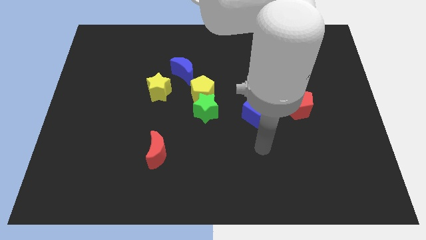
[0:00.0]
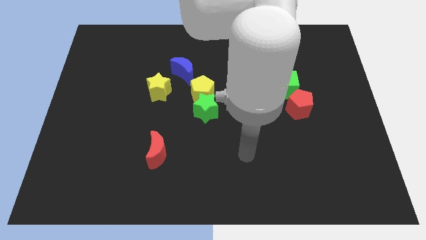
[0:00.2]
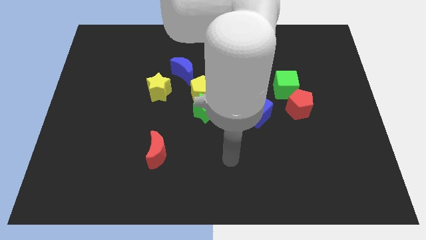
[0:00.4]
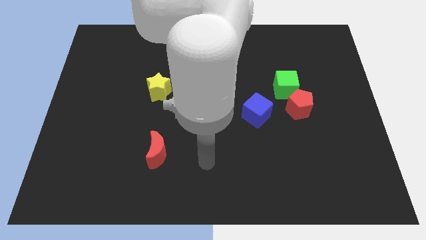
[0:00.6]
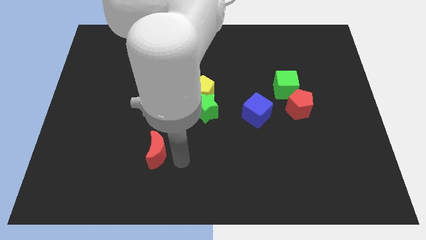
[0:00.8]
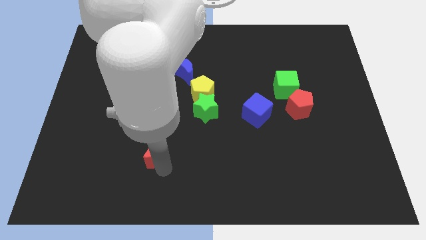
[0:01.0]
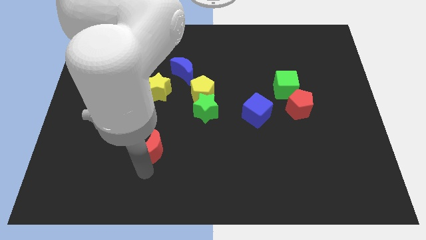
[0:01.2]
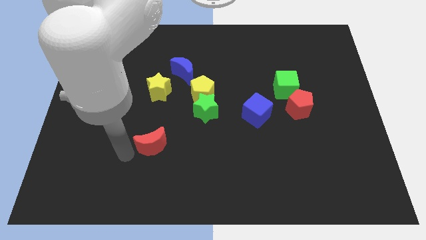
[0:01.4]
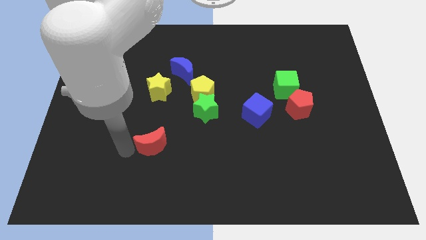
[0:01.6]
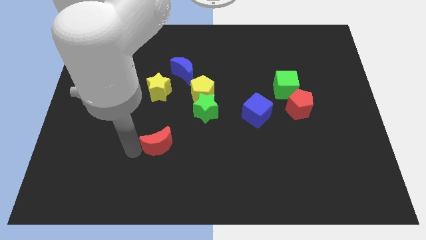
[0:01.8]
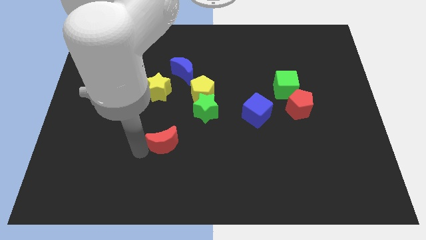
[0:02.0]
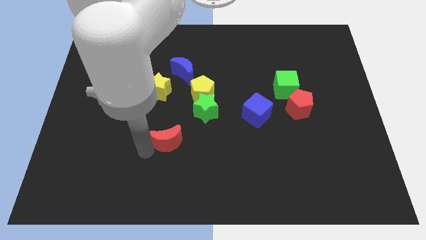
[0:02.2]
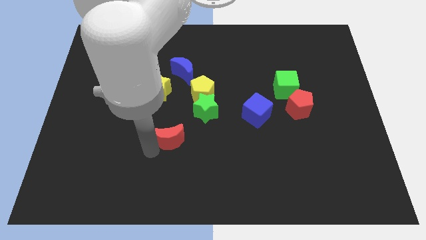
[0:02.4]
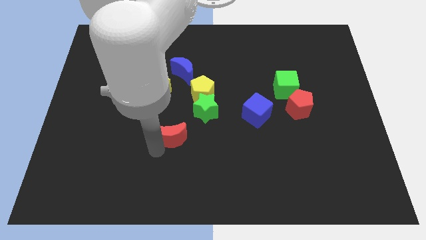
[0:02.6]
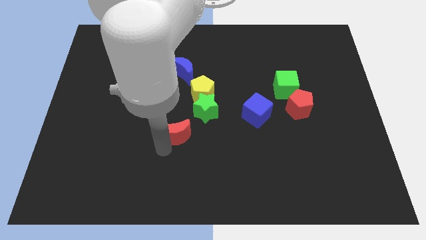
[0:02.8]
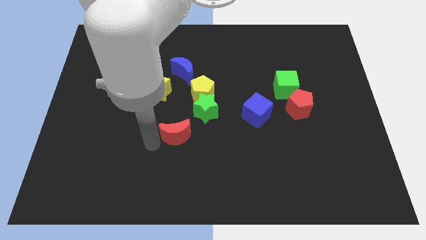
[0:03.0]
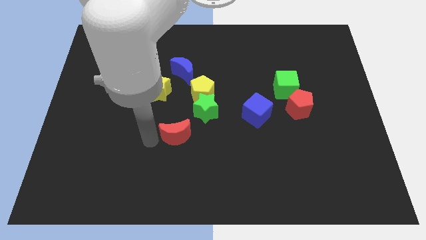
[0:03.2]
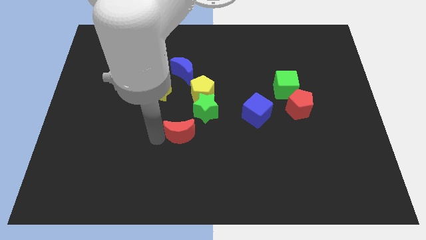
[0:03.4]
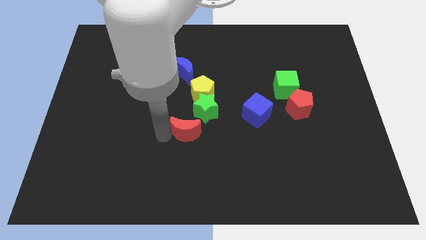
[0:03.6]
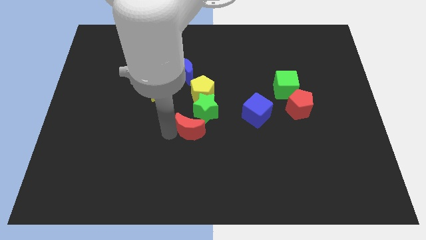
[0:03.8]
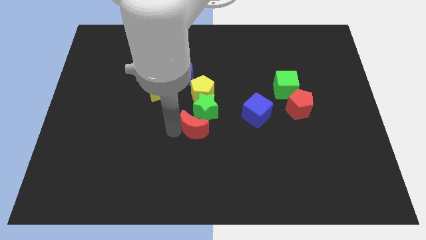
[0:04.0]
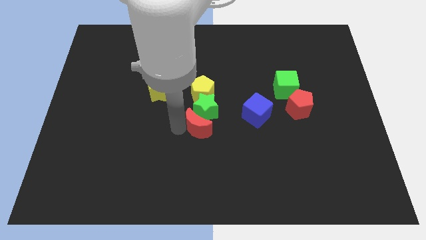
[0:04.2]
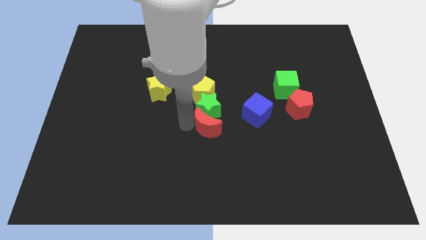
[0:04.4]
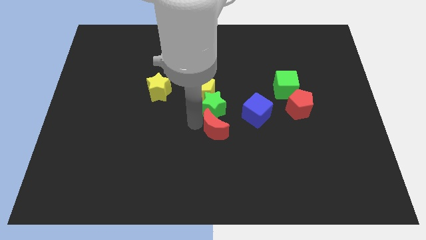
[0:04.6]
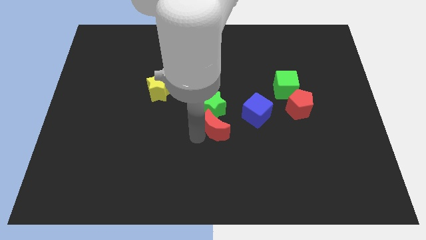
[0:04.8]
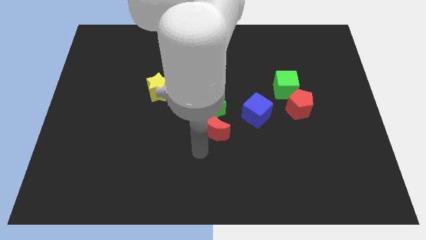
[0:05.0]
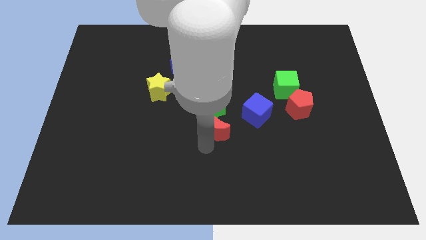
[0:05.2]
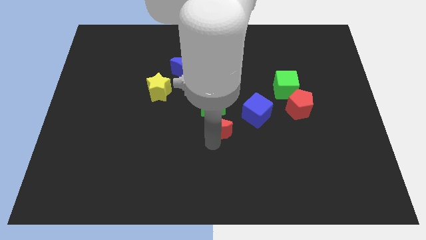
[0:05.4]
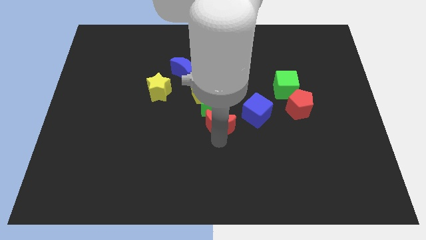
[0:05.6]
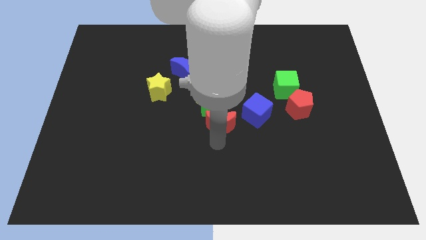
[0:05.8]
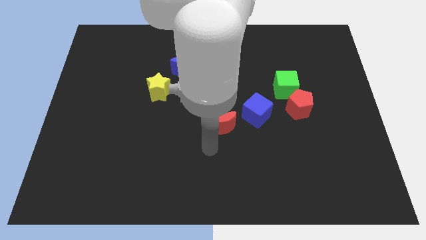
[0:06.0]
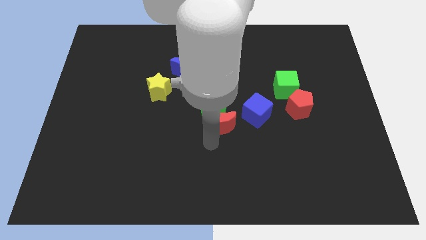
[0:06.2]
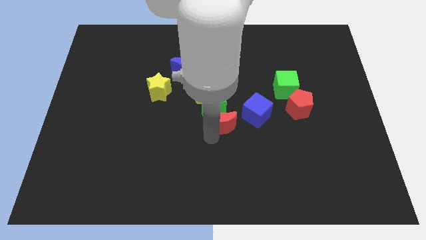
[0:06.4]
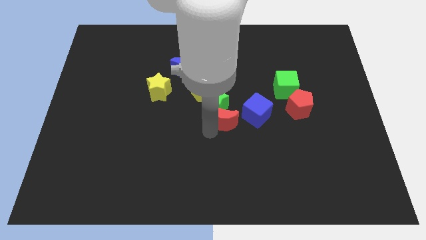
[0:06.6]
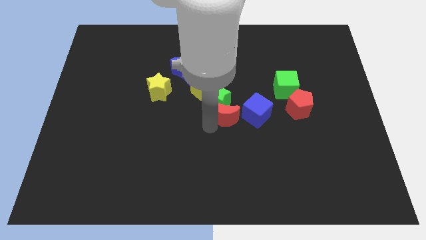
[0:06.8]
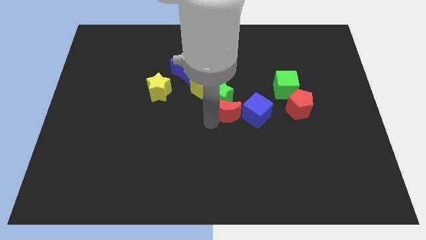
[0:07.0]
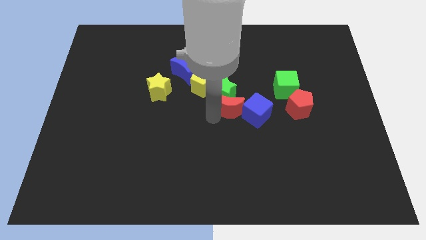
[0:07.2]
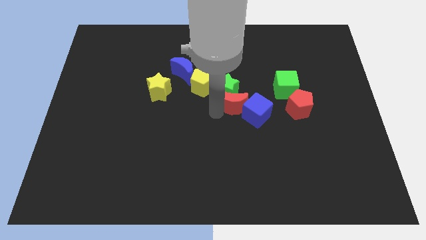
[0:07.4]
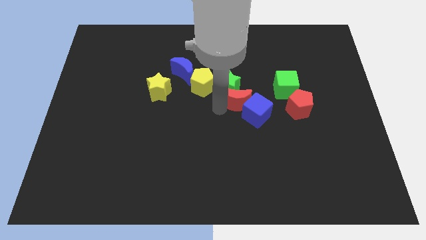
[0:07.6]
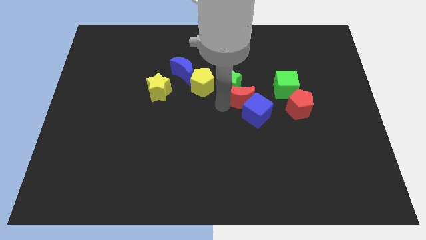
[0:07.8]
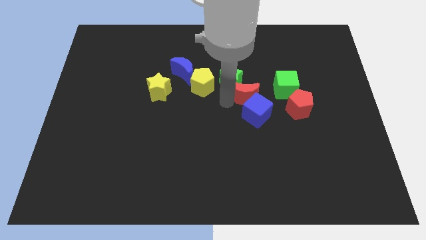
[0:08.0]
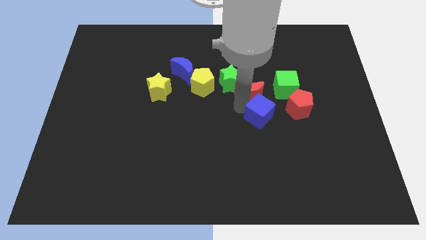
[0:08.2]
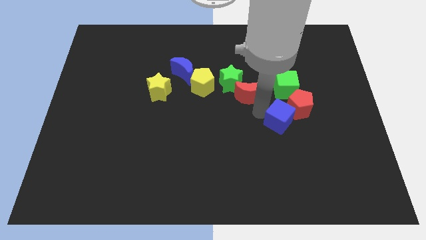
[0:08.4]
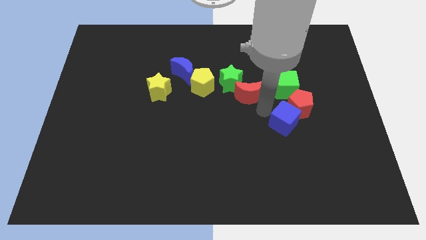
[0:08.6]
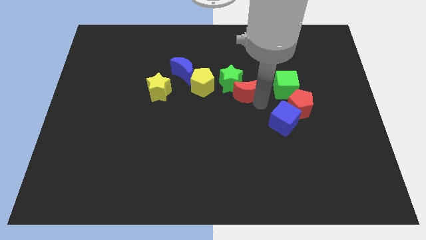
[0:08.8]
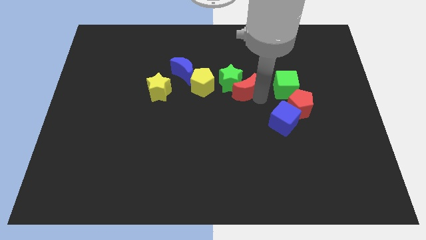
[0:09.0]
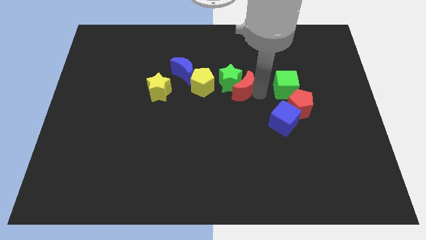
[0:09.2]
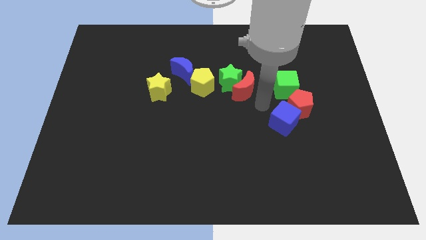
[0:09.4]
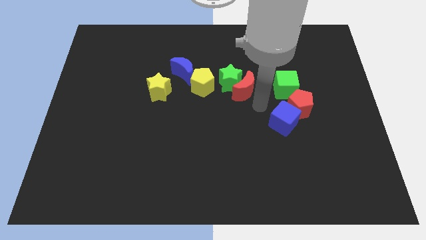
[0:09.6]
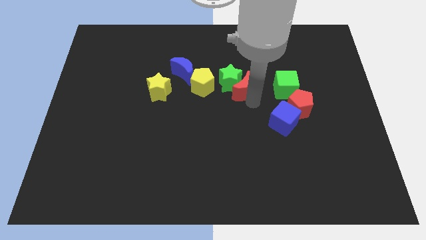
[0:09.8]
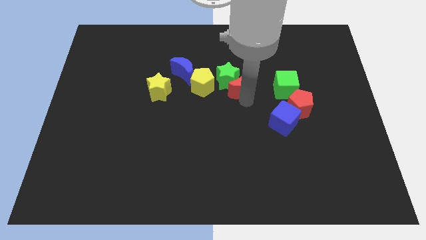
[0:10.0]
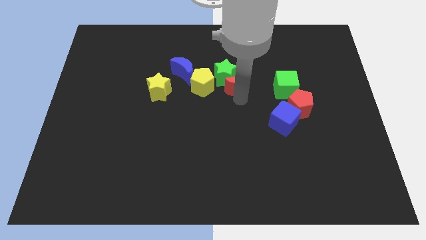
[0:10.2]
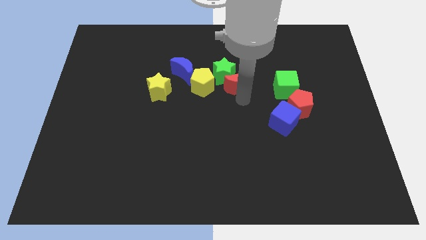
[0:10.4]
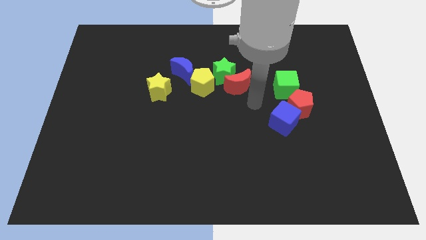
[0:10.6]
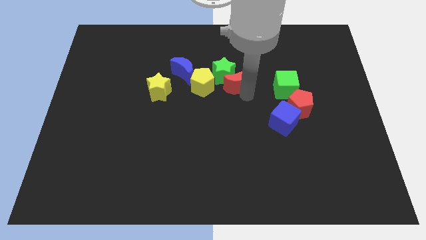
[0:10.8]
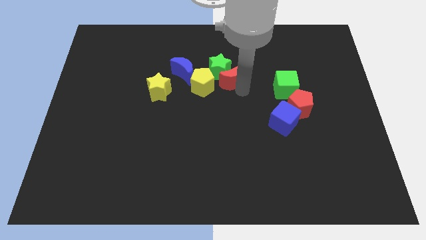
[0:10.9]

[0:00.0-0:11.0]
put the red moon to the top right side of the yellow pentagon

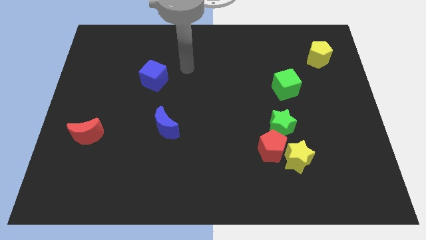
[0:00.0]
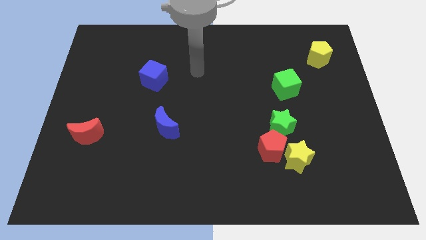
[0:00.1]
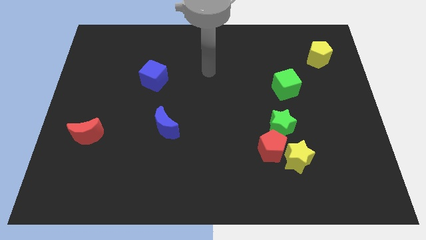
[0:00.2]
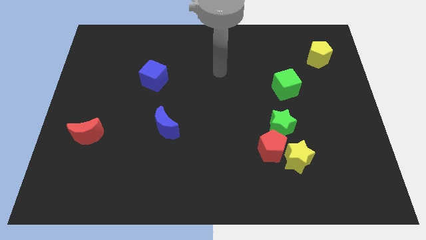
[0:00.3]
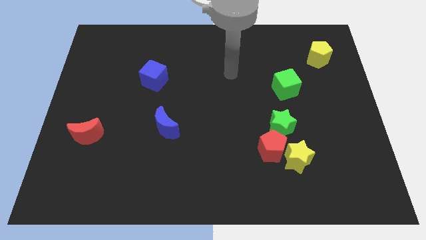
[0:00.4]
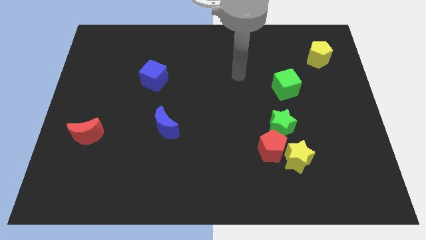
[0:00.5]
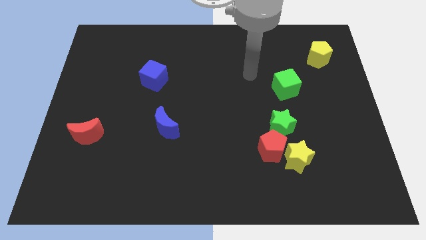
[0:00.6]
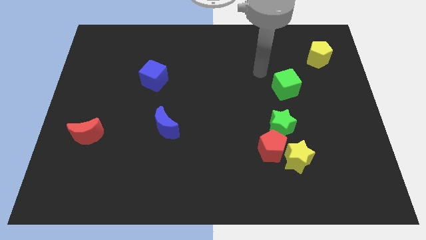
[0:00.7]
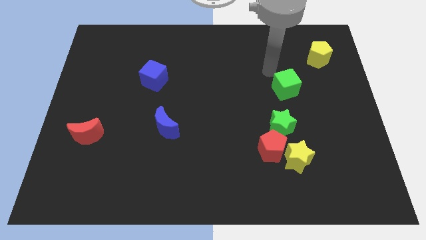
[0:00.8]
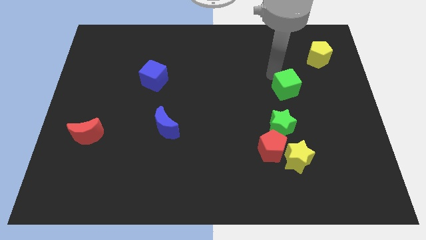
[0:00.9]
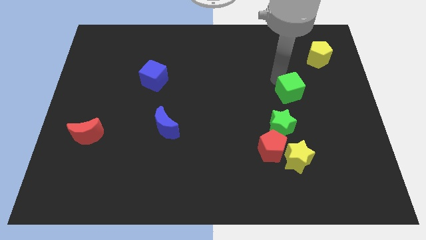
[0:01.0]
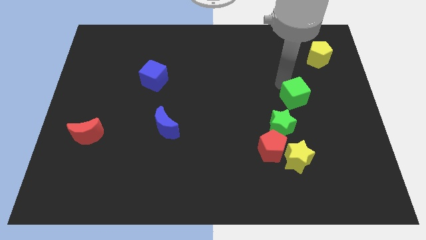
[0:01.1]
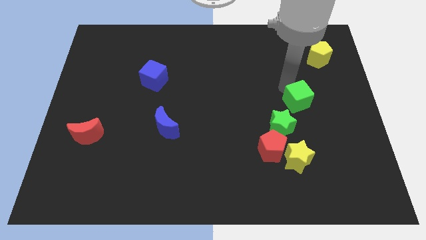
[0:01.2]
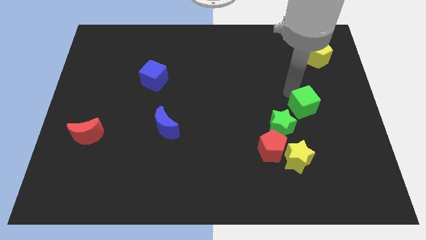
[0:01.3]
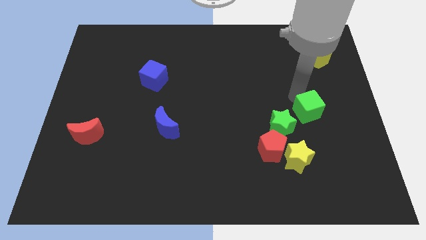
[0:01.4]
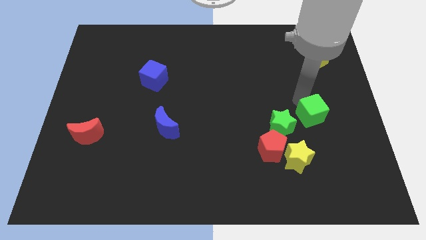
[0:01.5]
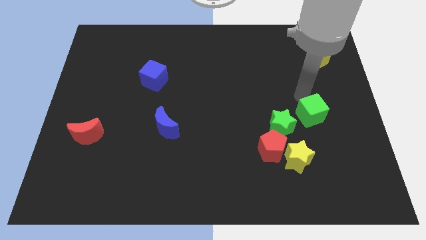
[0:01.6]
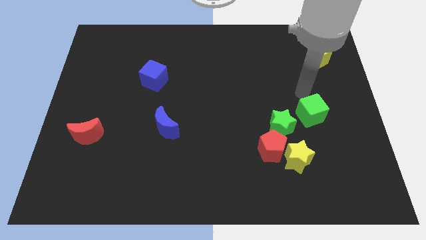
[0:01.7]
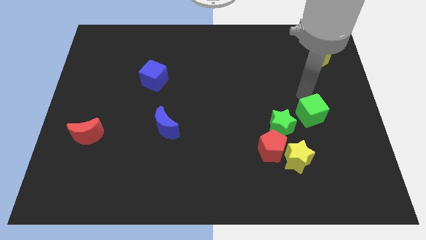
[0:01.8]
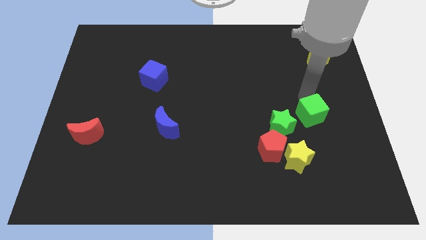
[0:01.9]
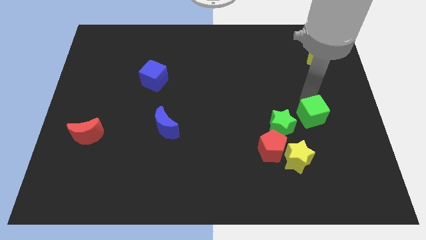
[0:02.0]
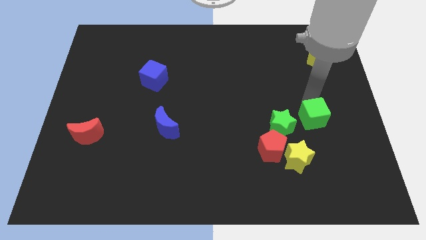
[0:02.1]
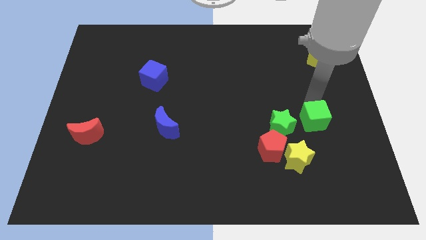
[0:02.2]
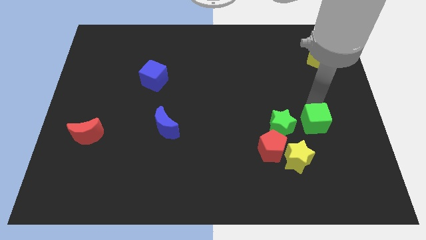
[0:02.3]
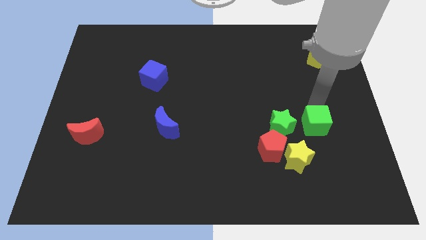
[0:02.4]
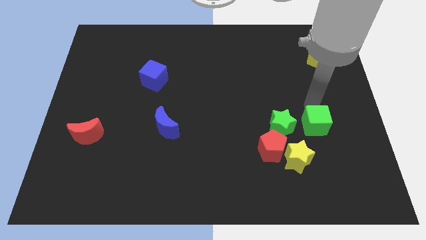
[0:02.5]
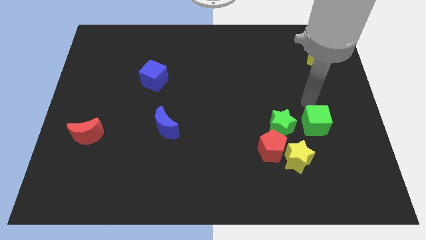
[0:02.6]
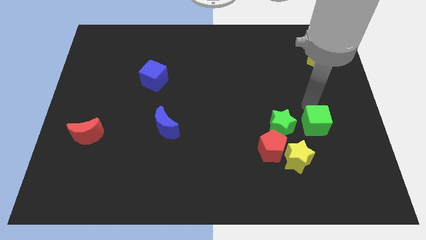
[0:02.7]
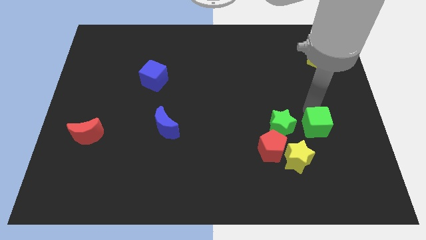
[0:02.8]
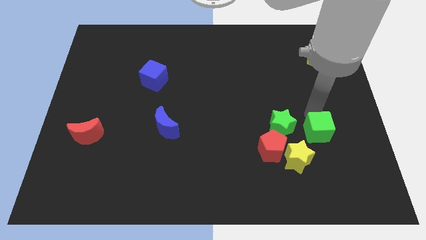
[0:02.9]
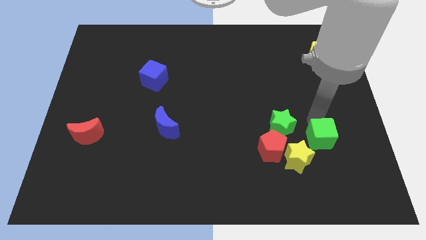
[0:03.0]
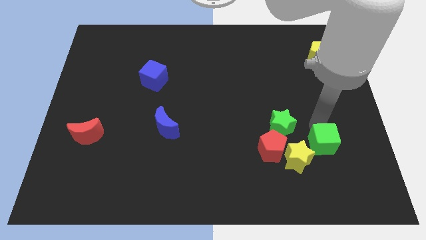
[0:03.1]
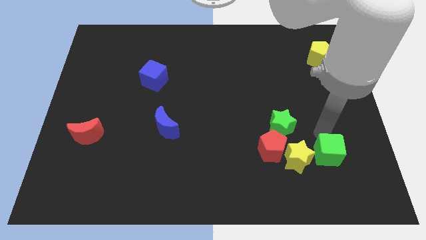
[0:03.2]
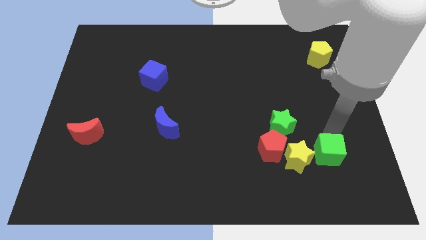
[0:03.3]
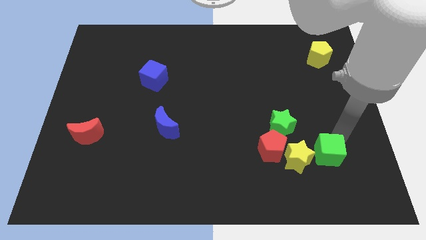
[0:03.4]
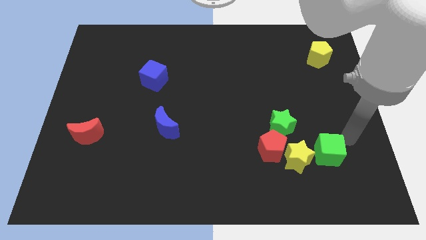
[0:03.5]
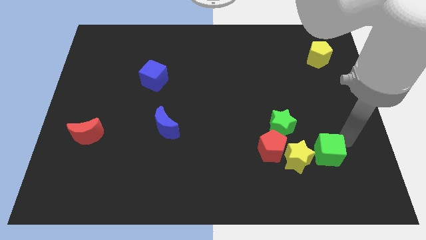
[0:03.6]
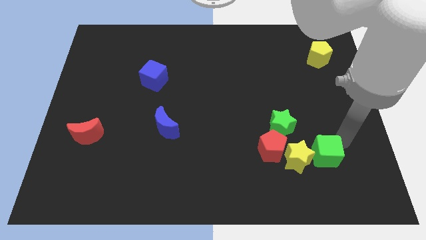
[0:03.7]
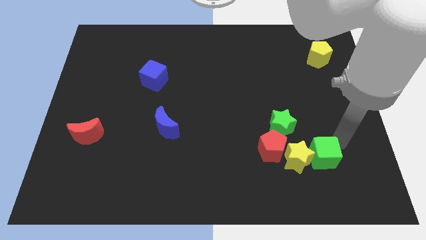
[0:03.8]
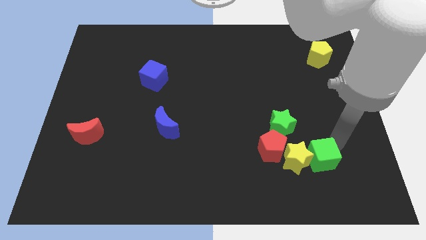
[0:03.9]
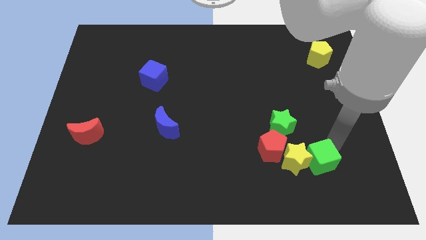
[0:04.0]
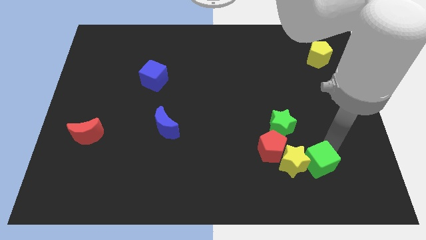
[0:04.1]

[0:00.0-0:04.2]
slide the green cube to the bottom right of the red pentagon
